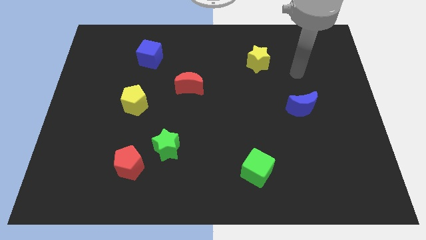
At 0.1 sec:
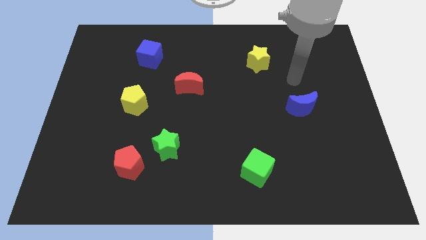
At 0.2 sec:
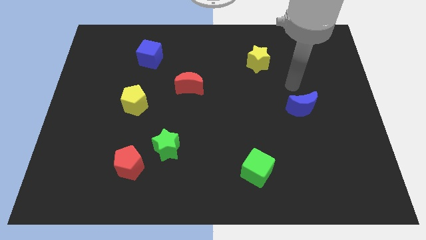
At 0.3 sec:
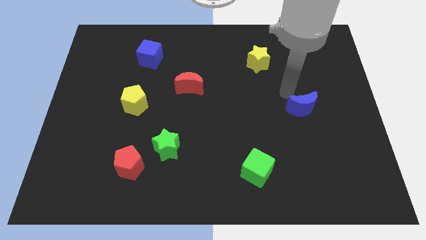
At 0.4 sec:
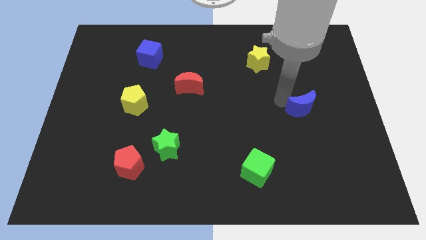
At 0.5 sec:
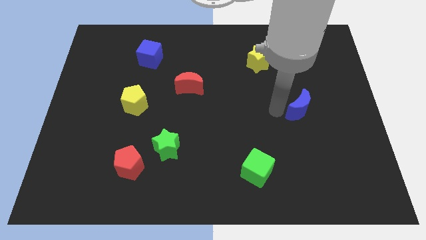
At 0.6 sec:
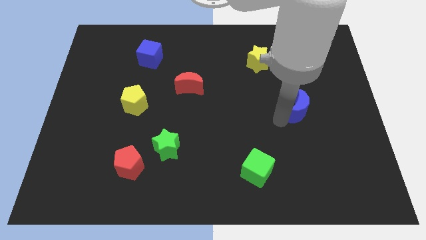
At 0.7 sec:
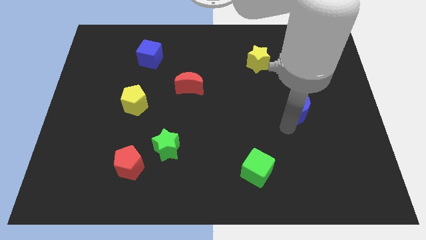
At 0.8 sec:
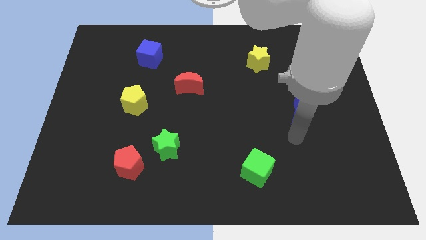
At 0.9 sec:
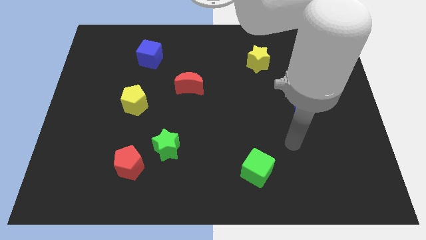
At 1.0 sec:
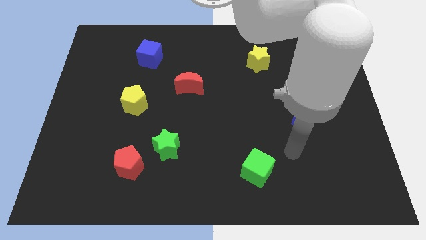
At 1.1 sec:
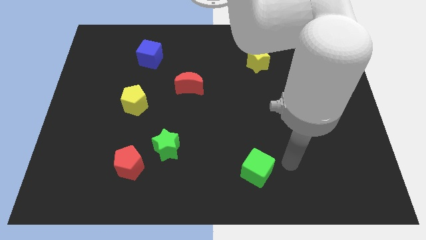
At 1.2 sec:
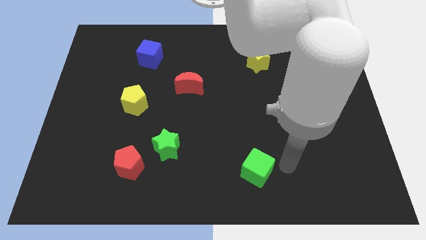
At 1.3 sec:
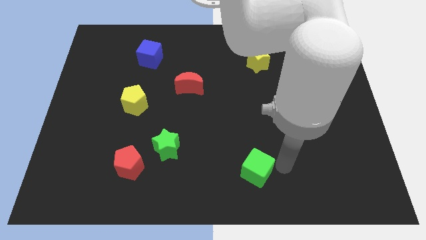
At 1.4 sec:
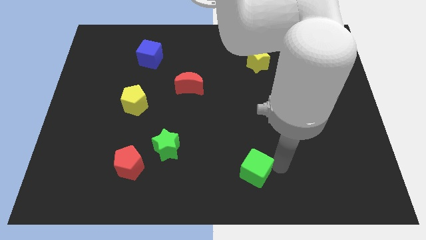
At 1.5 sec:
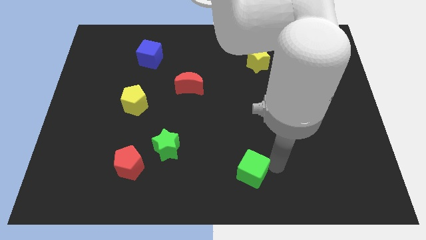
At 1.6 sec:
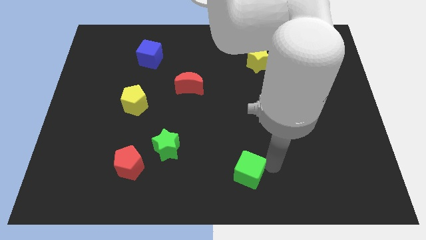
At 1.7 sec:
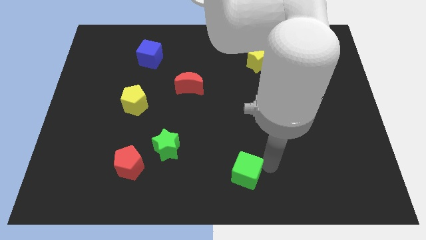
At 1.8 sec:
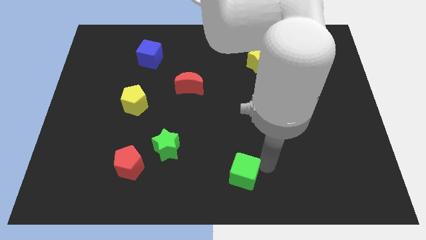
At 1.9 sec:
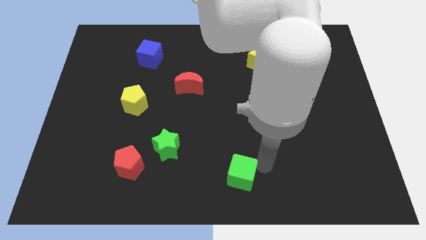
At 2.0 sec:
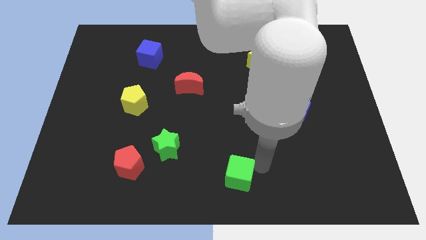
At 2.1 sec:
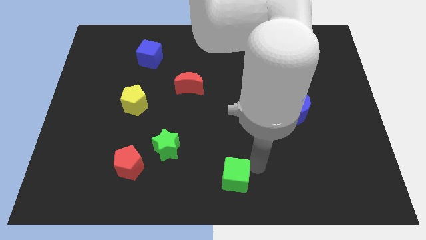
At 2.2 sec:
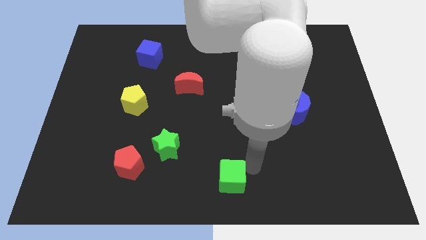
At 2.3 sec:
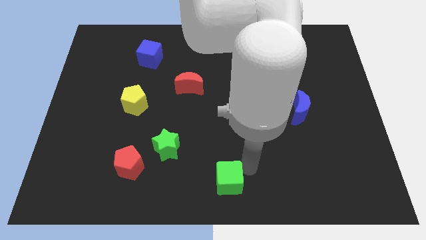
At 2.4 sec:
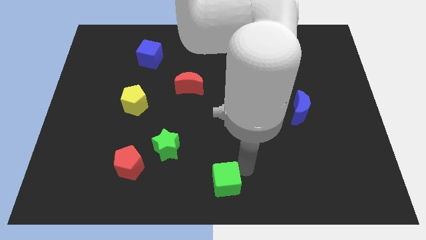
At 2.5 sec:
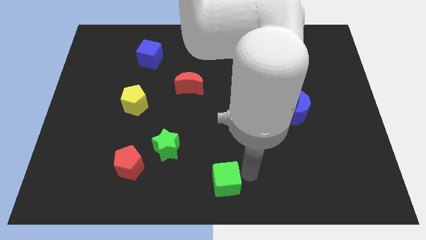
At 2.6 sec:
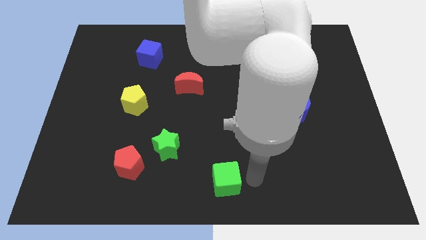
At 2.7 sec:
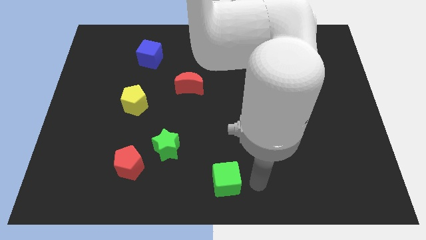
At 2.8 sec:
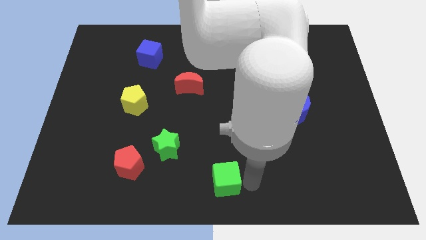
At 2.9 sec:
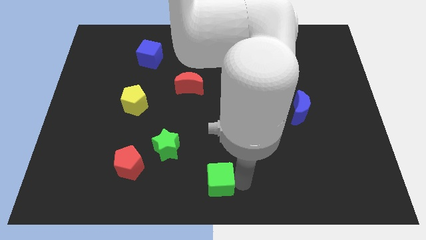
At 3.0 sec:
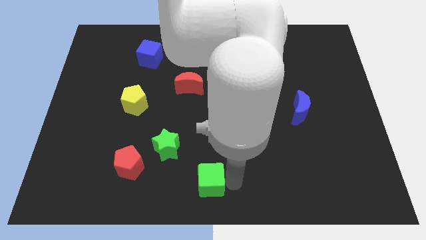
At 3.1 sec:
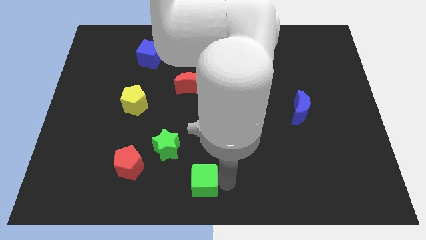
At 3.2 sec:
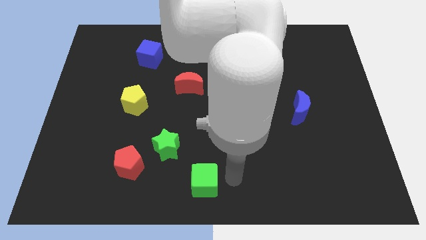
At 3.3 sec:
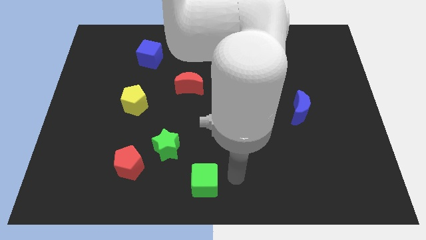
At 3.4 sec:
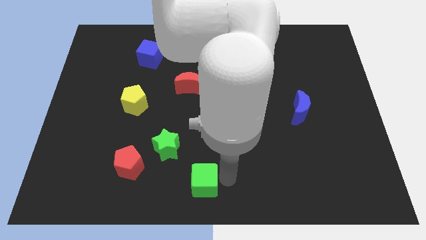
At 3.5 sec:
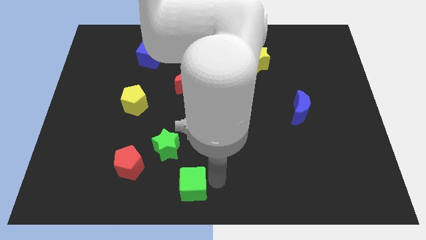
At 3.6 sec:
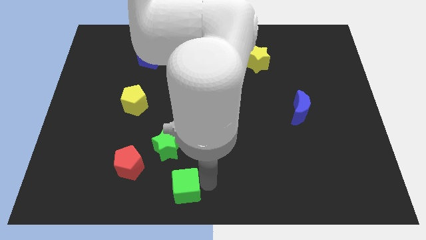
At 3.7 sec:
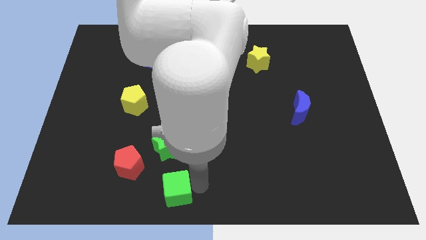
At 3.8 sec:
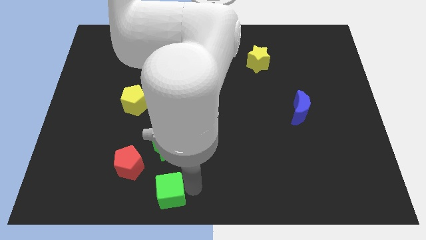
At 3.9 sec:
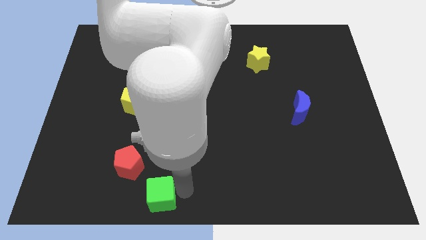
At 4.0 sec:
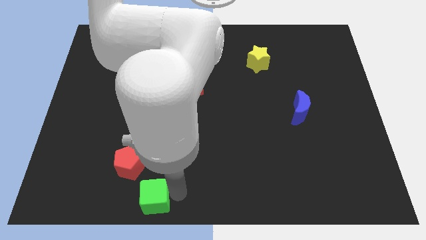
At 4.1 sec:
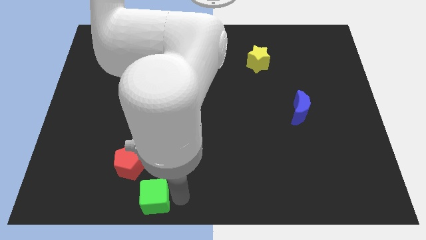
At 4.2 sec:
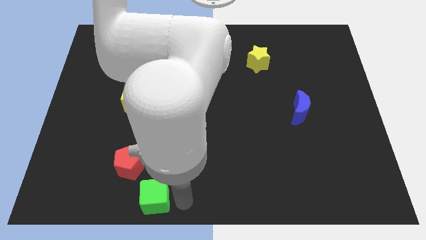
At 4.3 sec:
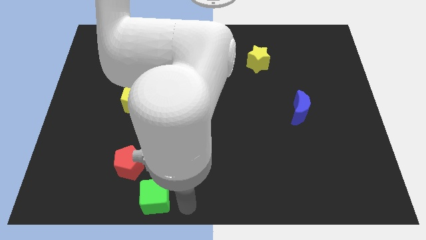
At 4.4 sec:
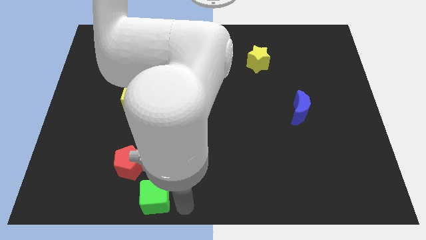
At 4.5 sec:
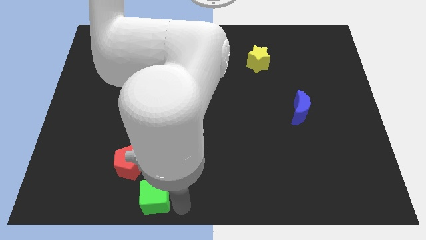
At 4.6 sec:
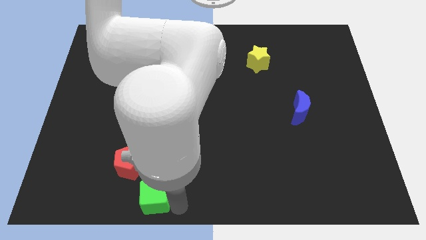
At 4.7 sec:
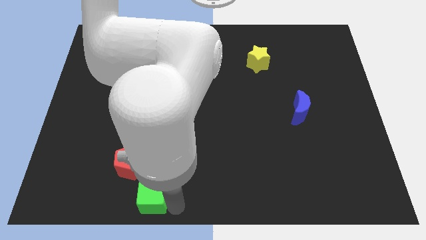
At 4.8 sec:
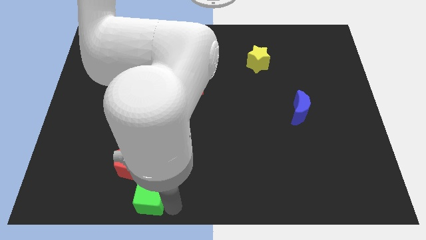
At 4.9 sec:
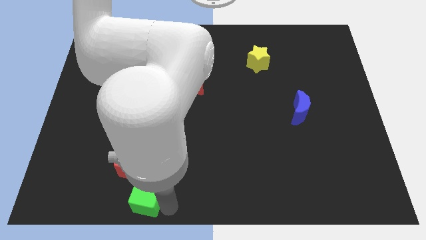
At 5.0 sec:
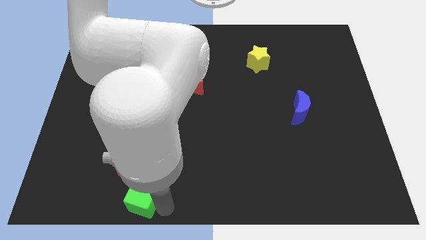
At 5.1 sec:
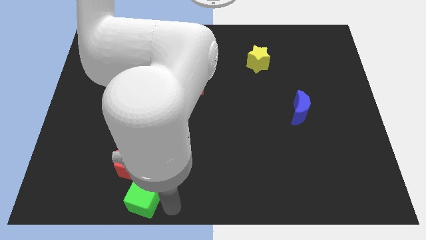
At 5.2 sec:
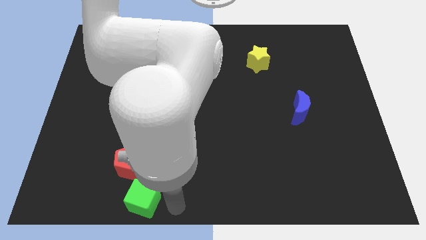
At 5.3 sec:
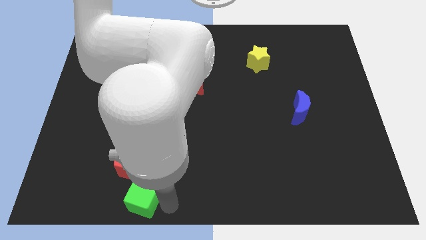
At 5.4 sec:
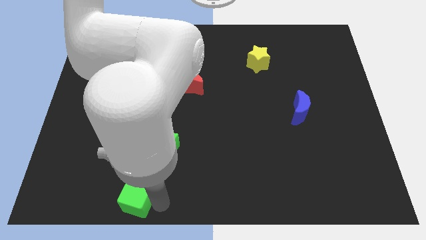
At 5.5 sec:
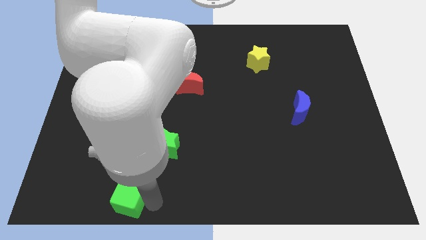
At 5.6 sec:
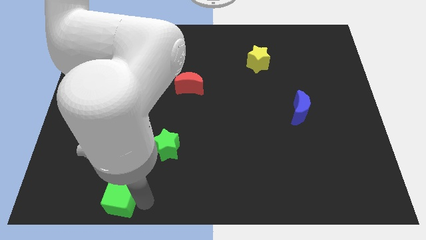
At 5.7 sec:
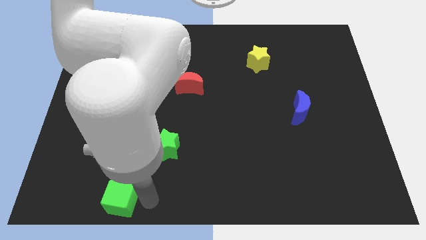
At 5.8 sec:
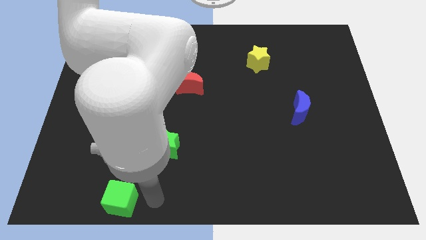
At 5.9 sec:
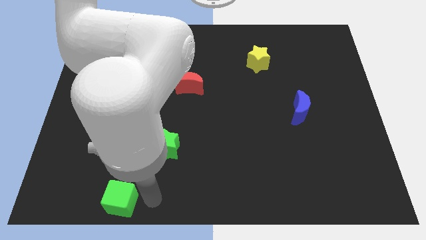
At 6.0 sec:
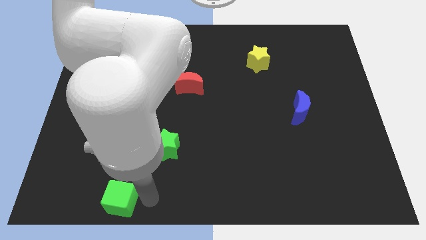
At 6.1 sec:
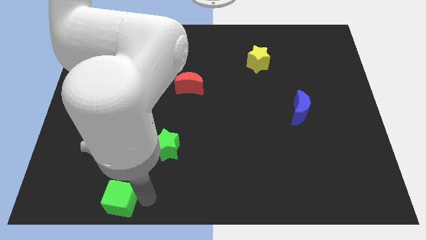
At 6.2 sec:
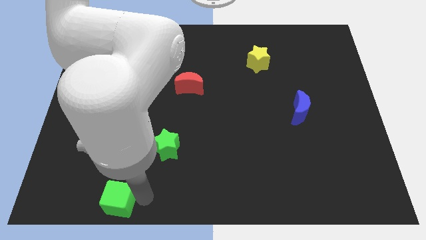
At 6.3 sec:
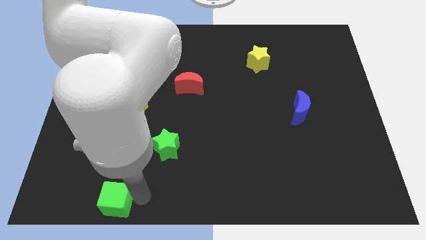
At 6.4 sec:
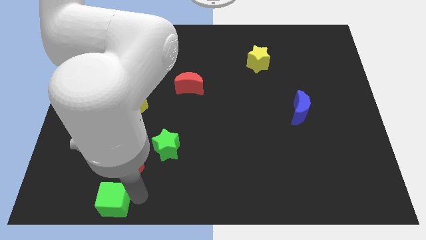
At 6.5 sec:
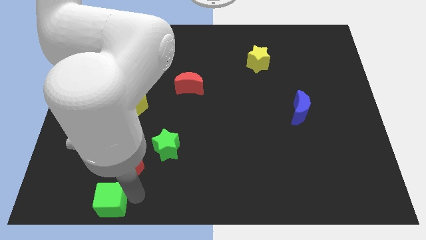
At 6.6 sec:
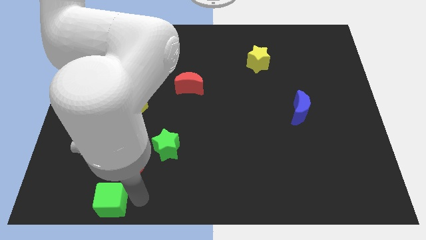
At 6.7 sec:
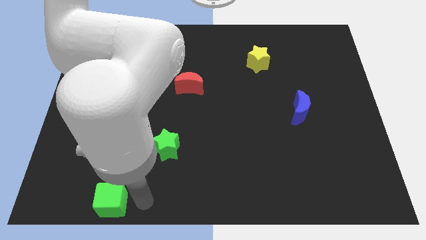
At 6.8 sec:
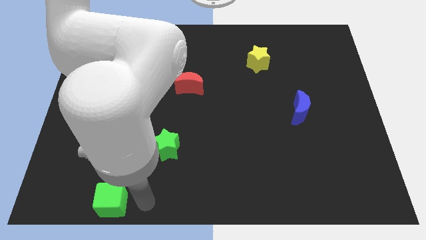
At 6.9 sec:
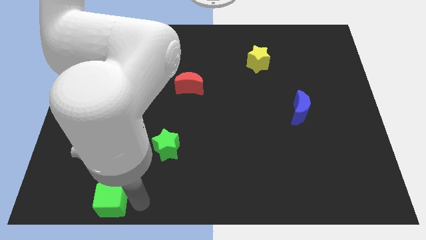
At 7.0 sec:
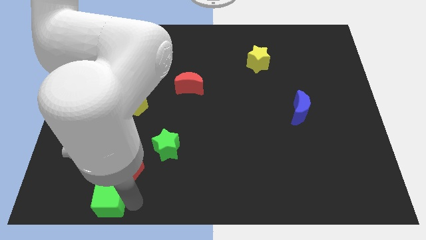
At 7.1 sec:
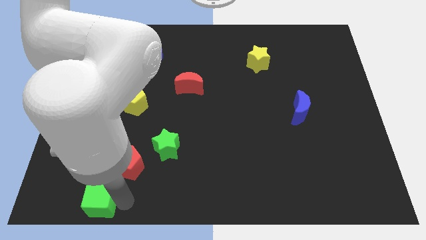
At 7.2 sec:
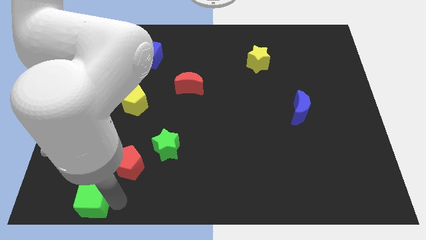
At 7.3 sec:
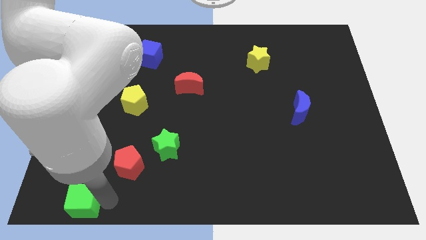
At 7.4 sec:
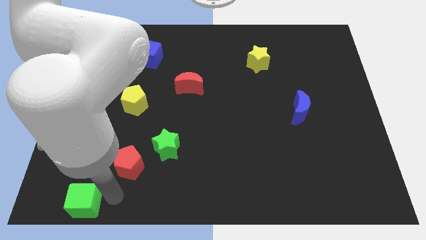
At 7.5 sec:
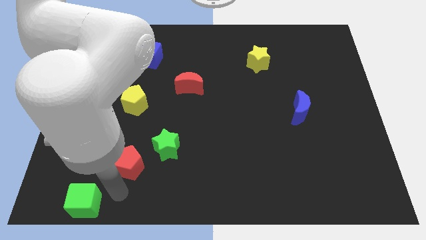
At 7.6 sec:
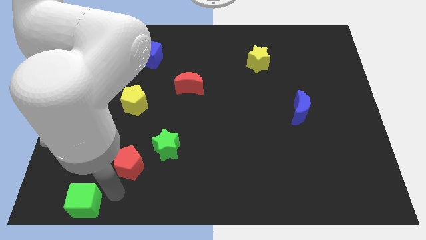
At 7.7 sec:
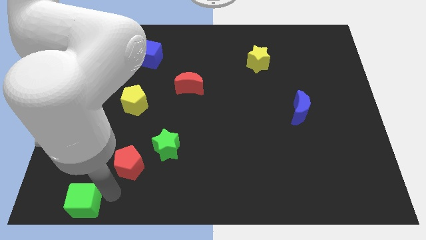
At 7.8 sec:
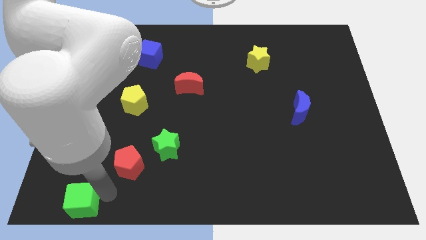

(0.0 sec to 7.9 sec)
put the green cube to the bottom left corner
